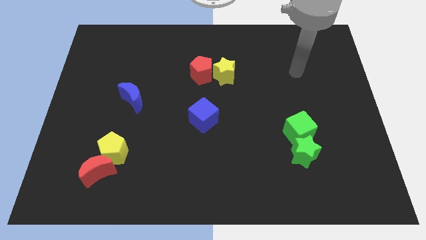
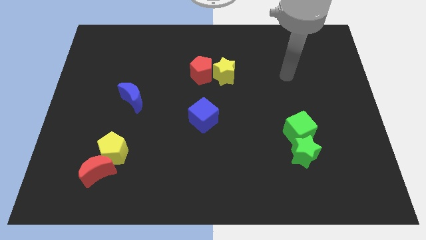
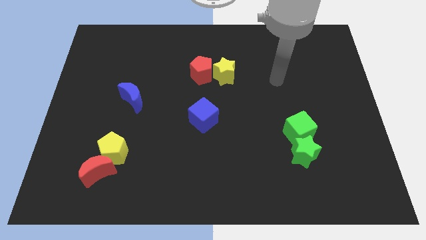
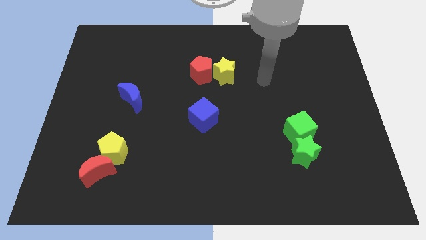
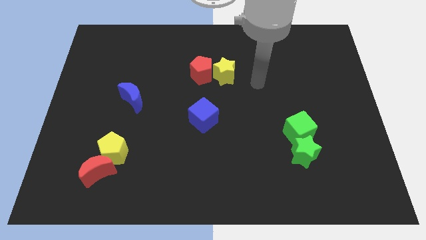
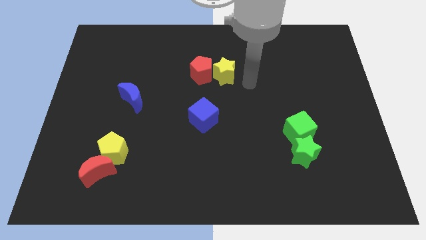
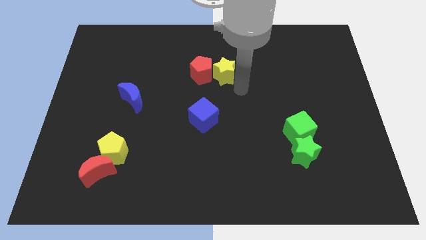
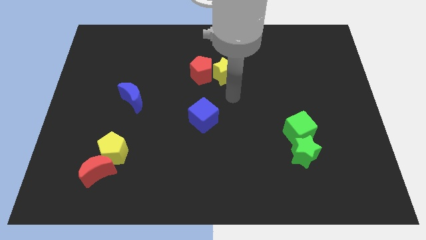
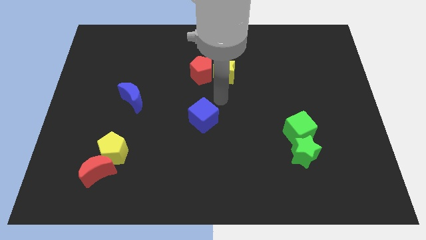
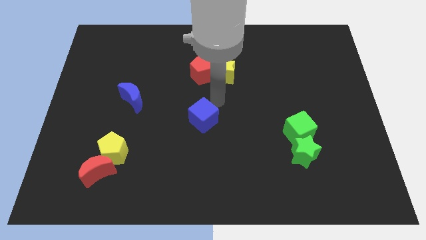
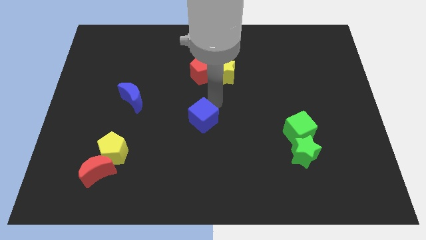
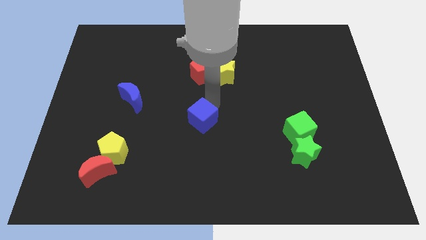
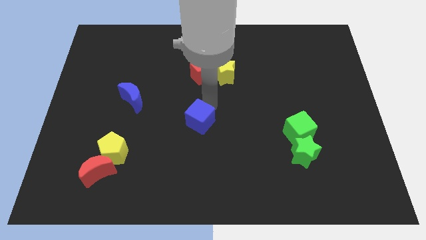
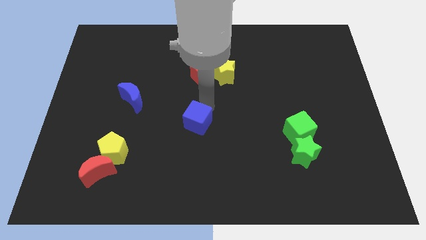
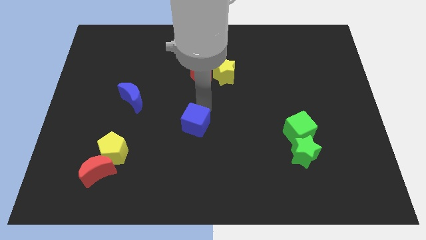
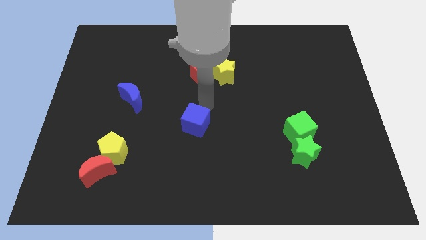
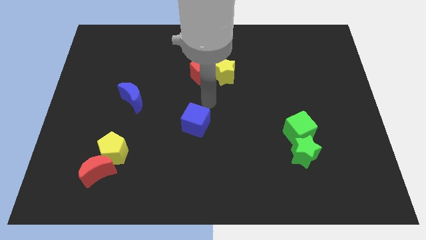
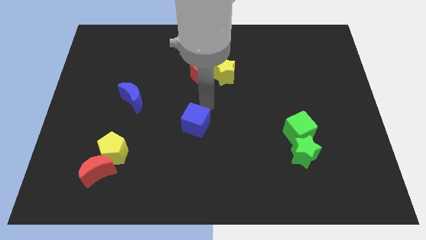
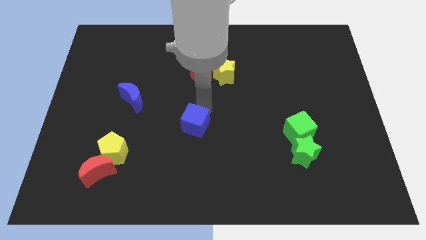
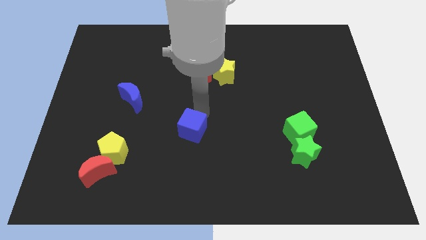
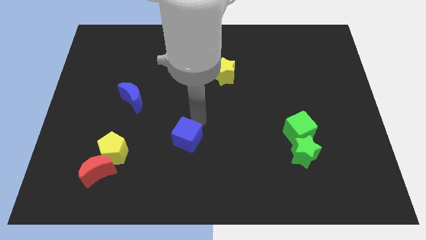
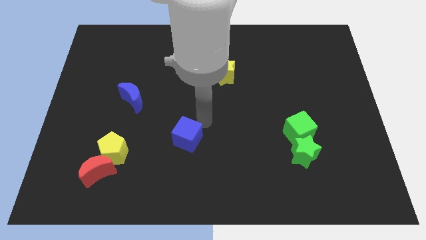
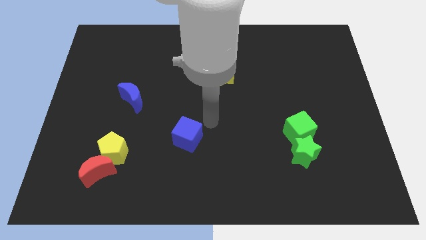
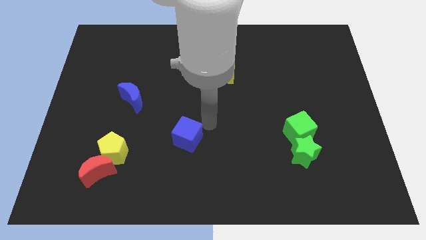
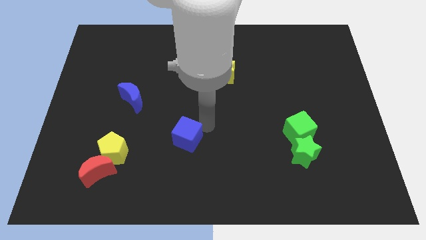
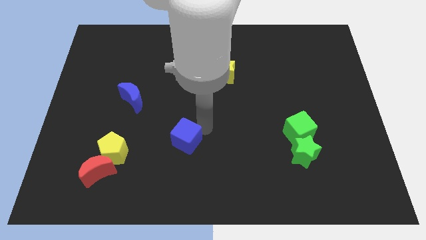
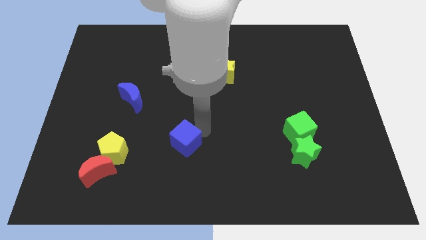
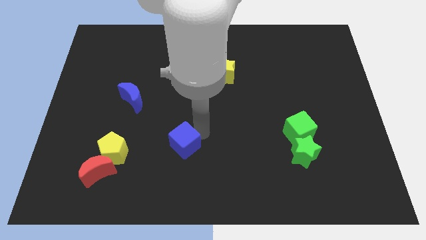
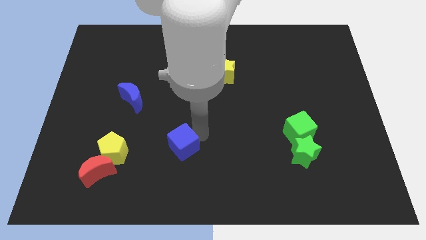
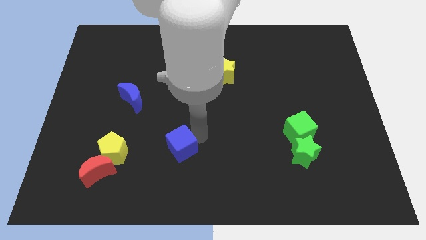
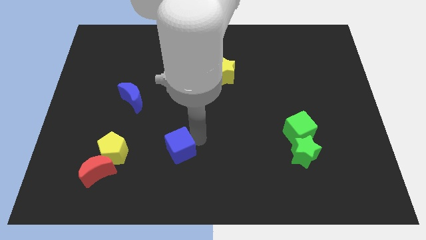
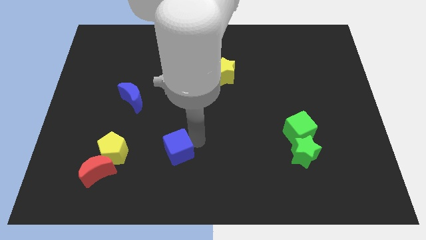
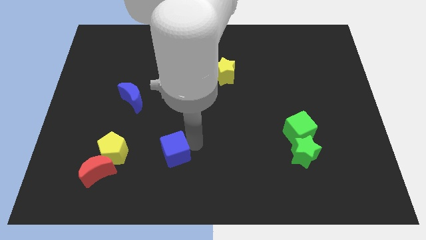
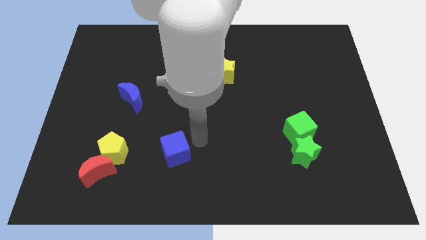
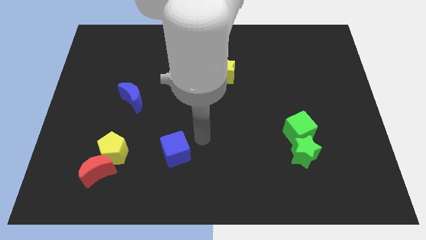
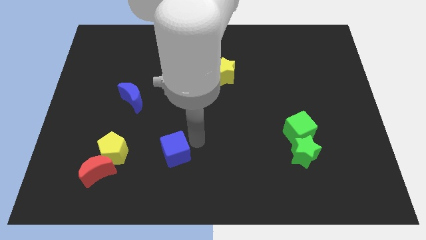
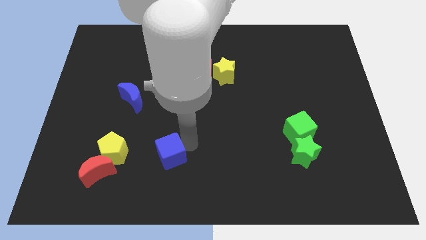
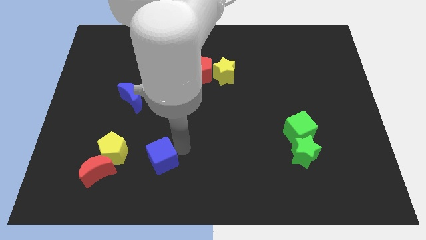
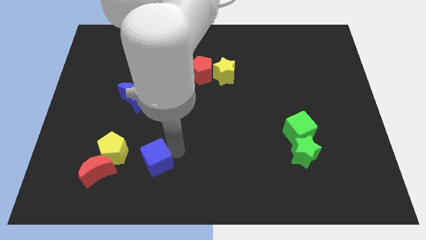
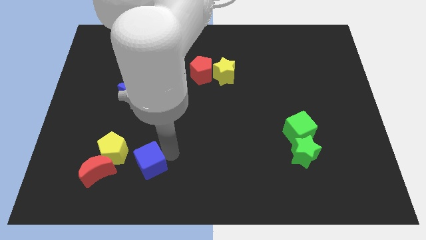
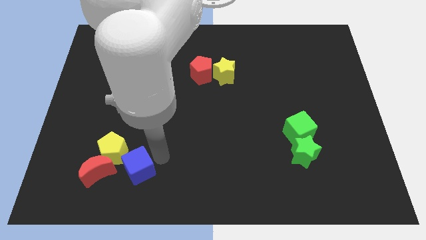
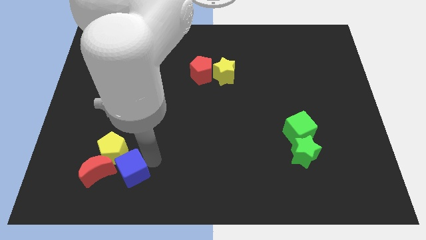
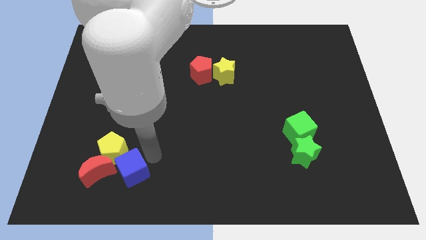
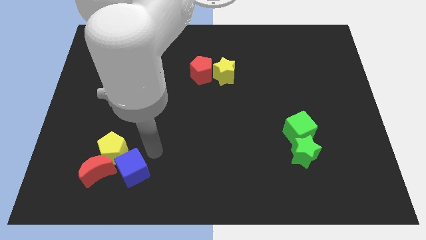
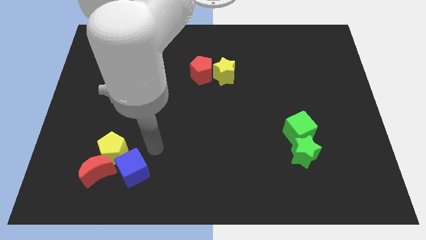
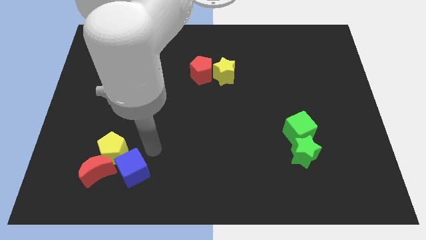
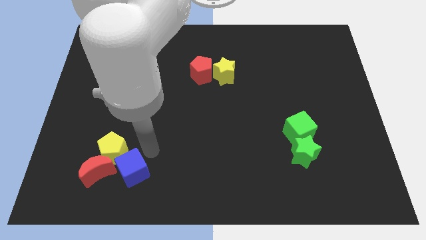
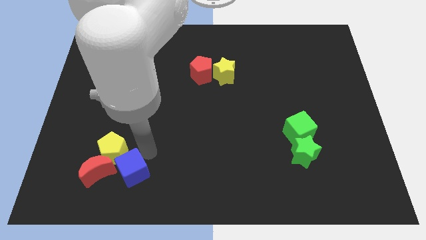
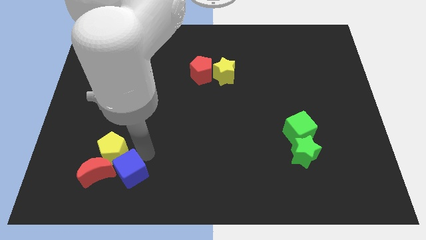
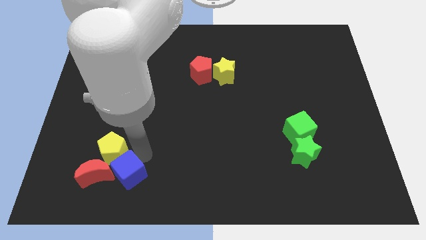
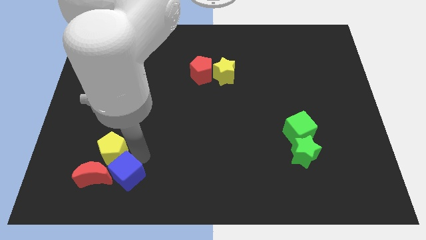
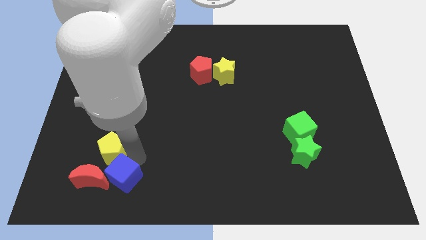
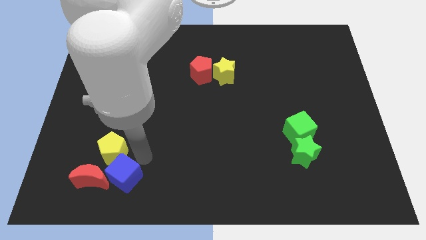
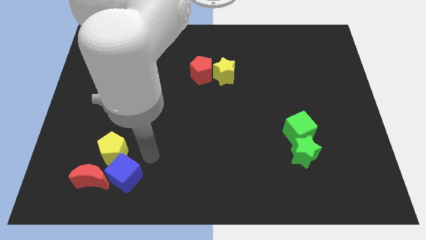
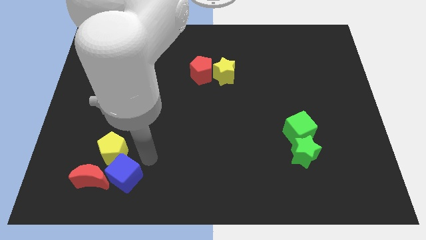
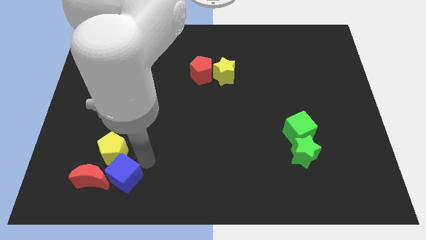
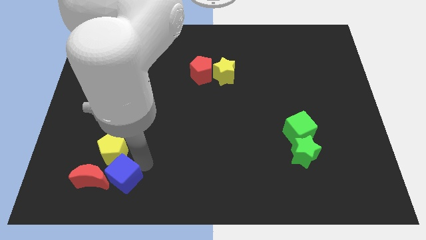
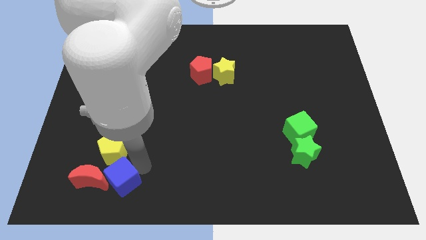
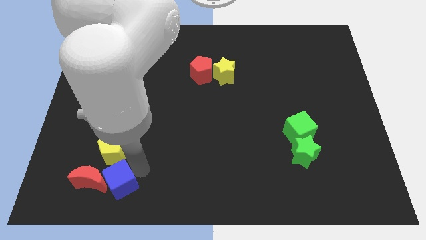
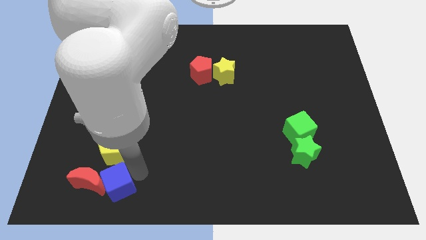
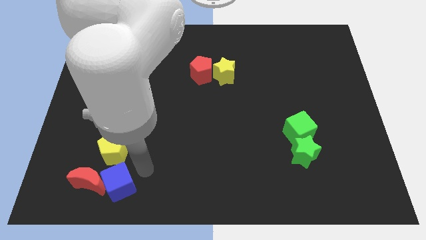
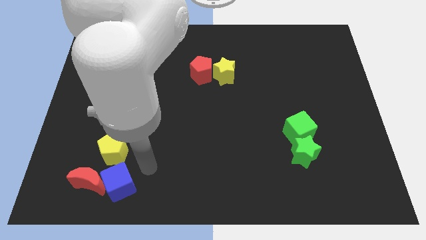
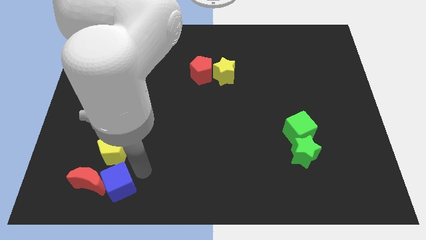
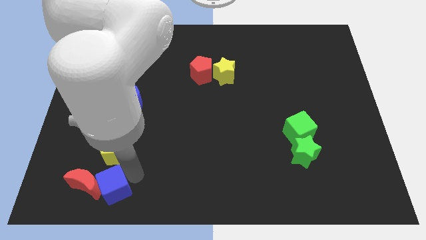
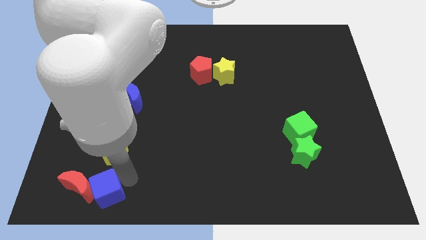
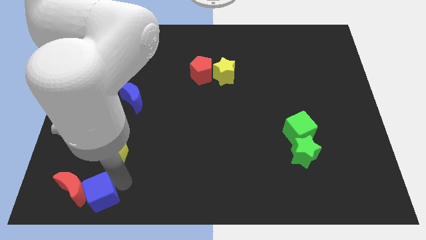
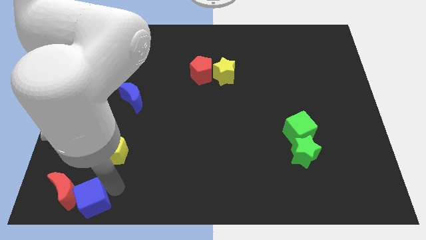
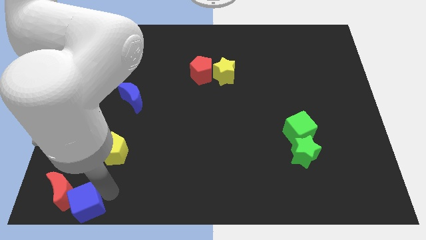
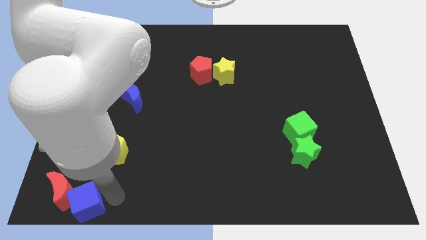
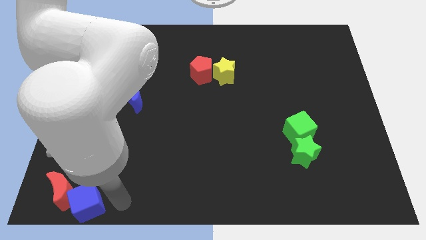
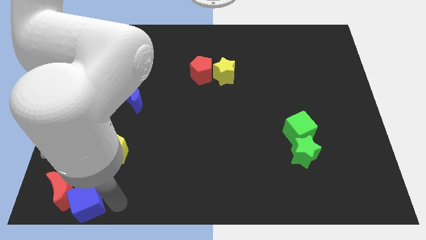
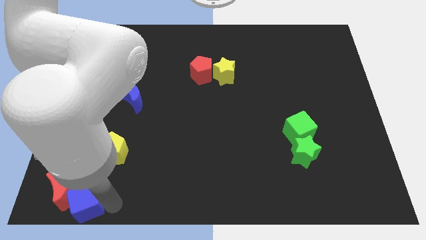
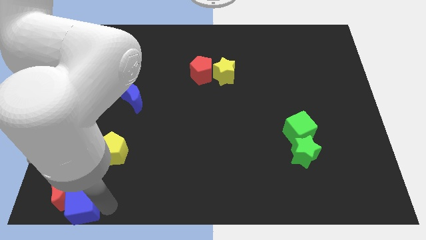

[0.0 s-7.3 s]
put the blue cube to the bottom left corner
